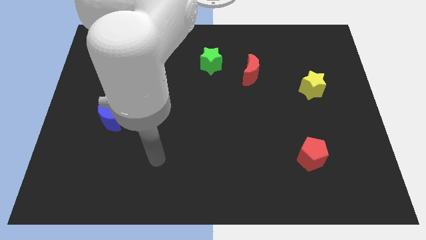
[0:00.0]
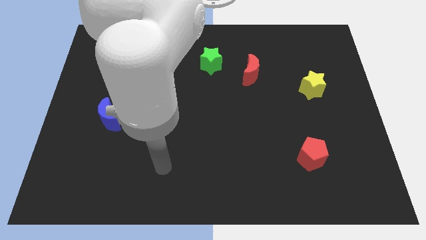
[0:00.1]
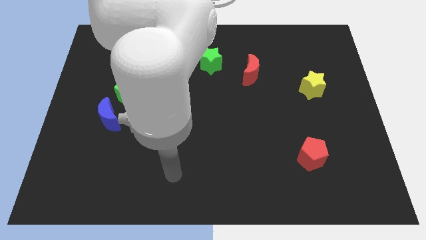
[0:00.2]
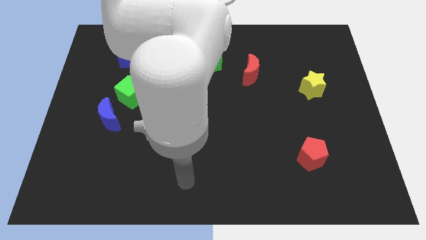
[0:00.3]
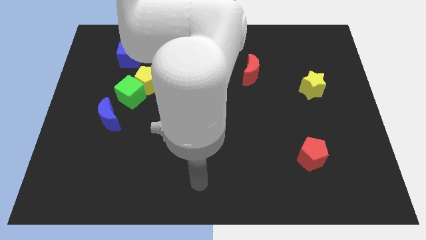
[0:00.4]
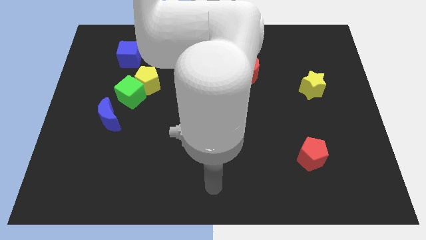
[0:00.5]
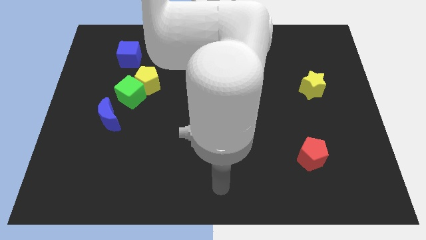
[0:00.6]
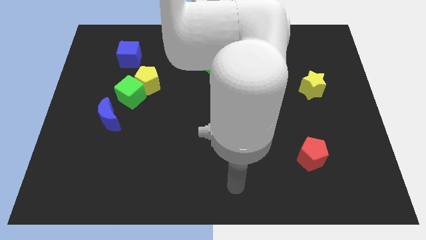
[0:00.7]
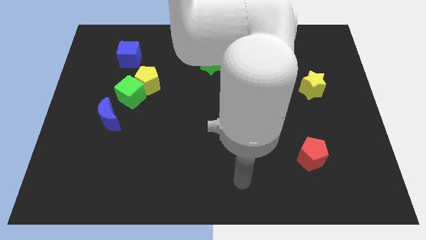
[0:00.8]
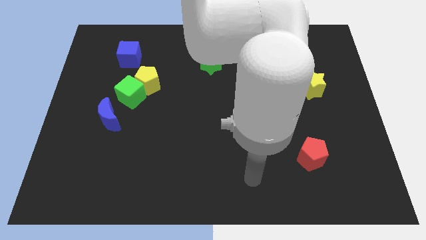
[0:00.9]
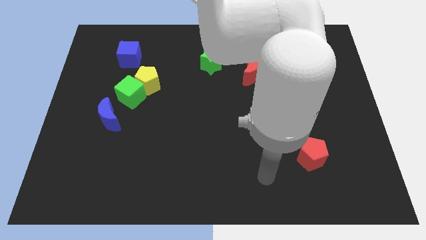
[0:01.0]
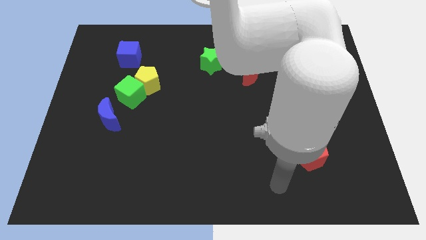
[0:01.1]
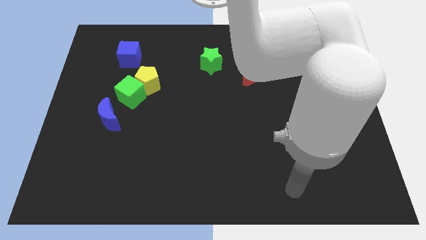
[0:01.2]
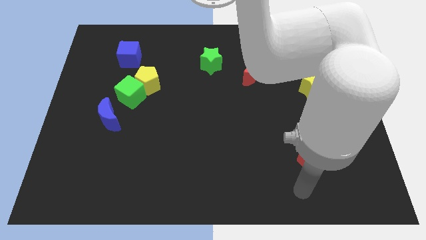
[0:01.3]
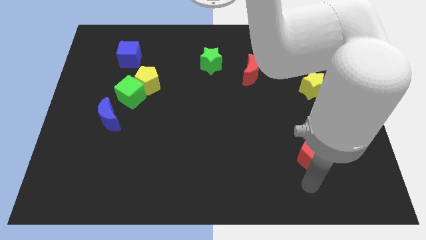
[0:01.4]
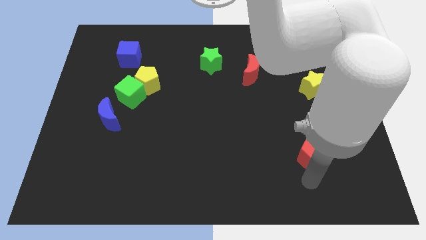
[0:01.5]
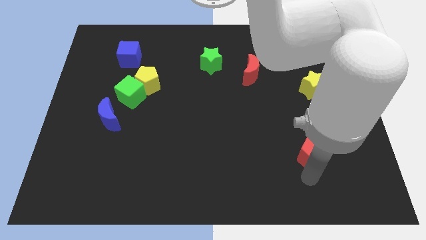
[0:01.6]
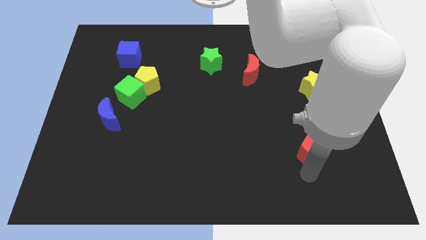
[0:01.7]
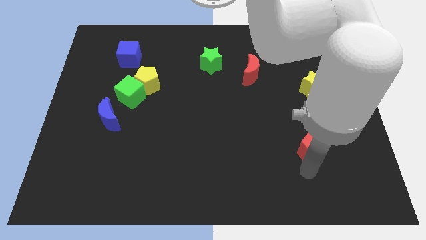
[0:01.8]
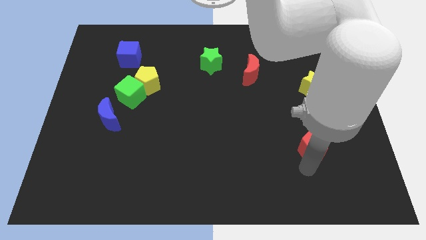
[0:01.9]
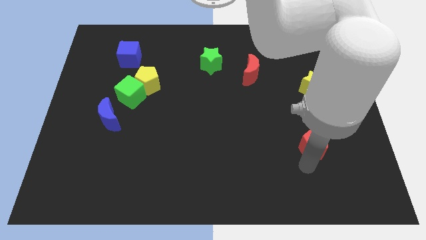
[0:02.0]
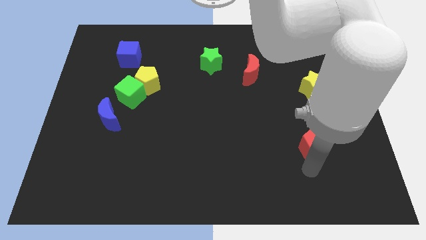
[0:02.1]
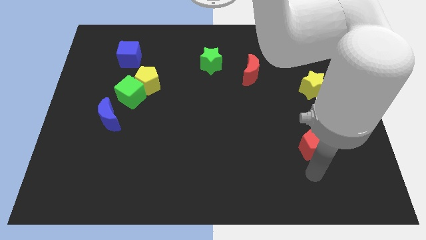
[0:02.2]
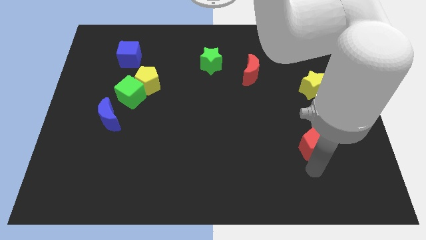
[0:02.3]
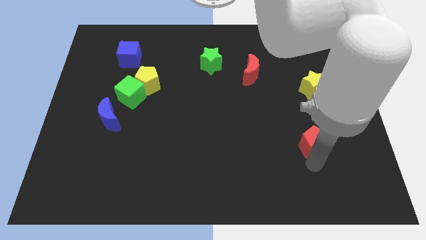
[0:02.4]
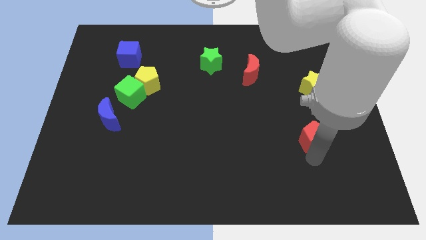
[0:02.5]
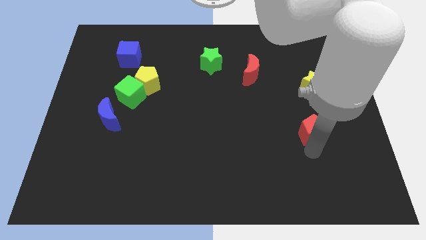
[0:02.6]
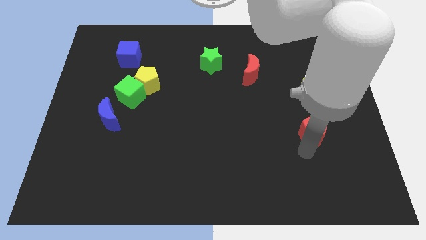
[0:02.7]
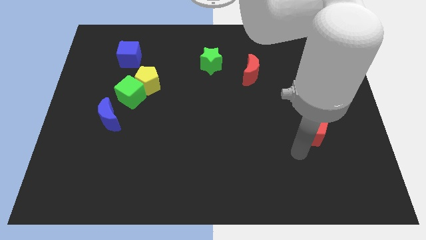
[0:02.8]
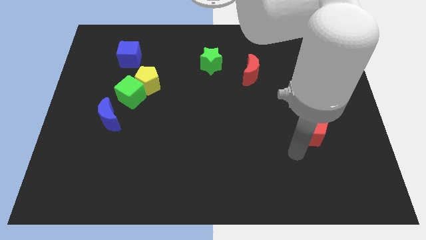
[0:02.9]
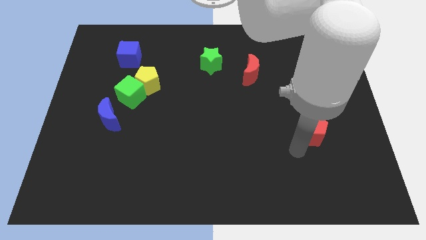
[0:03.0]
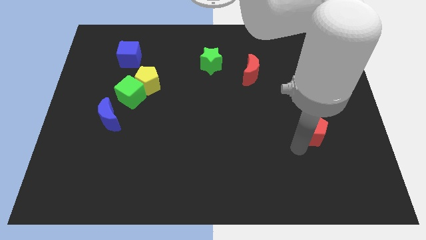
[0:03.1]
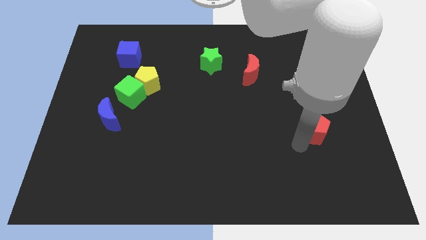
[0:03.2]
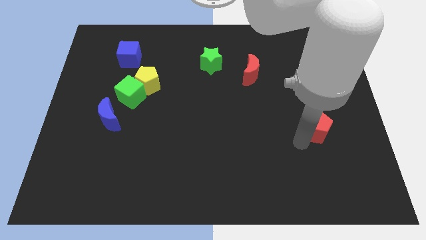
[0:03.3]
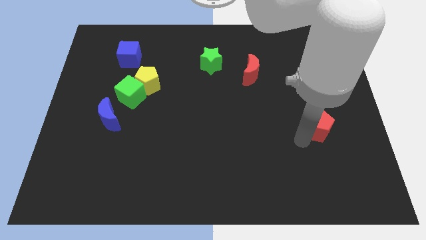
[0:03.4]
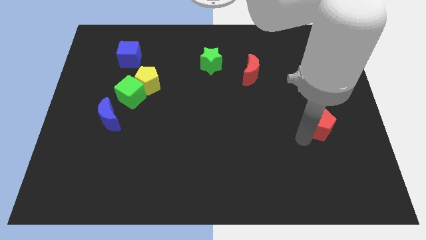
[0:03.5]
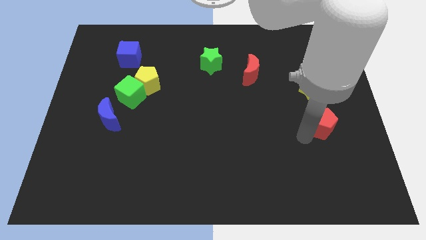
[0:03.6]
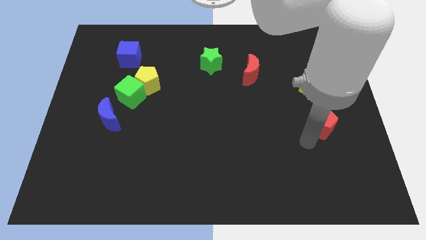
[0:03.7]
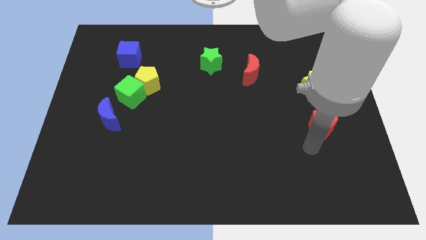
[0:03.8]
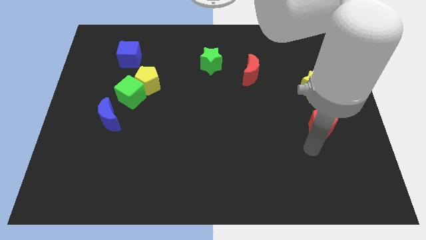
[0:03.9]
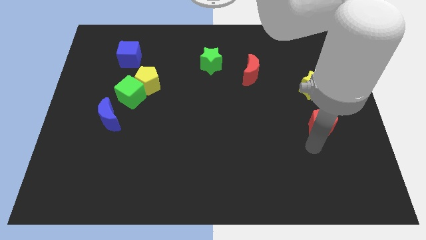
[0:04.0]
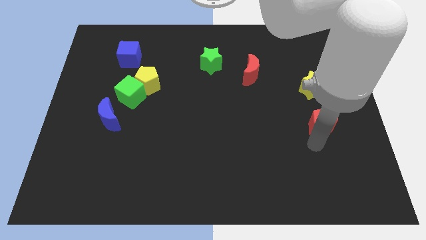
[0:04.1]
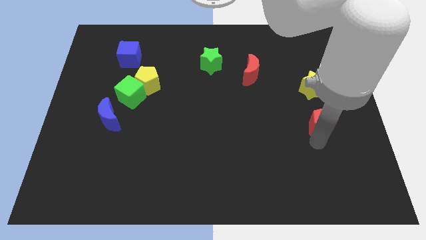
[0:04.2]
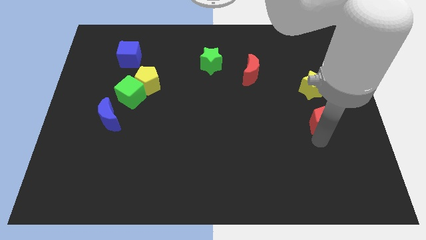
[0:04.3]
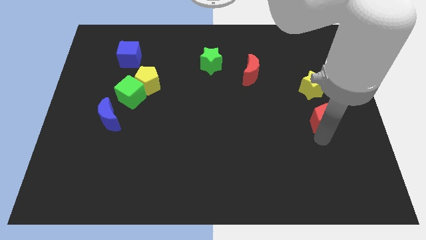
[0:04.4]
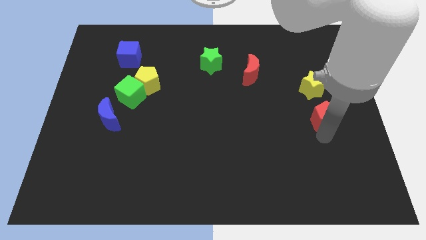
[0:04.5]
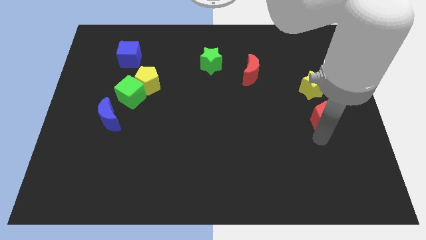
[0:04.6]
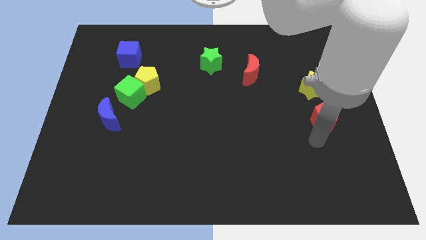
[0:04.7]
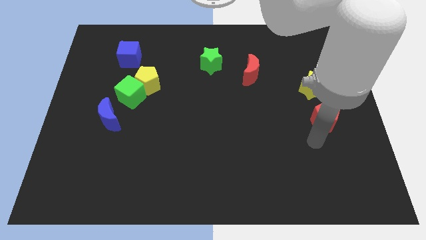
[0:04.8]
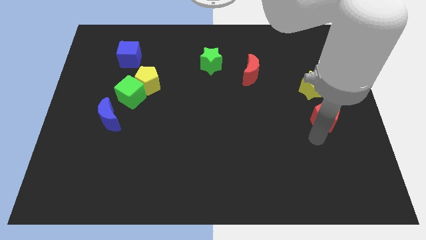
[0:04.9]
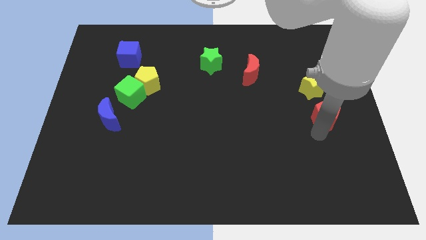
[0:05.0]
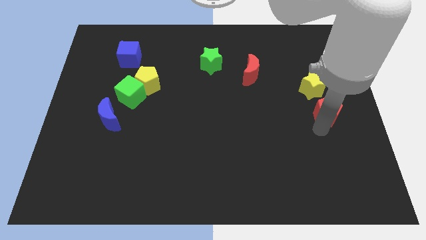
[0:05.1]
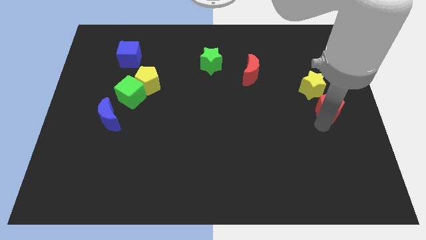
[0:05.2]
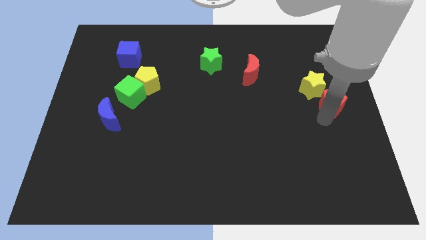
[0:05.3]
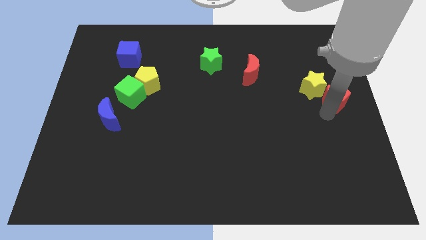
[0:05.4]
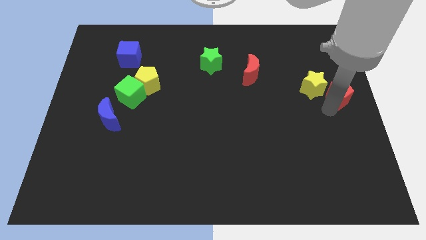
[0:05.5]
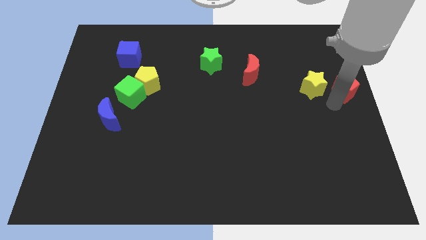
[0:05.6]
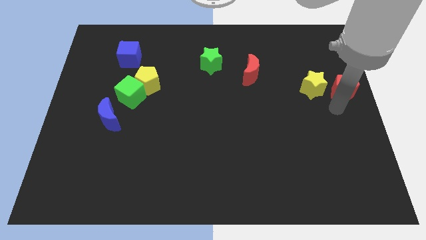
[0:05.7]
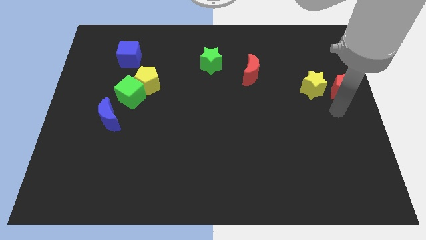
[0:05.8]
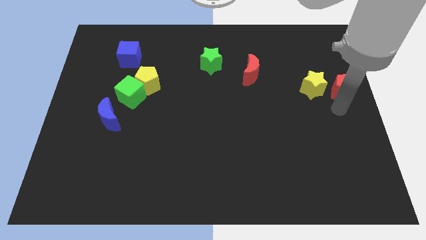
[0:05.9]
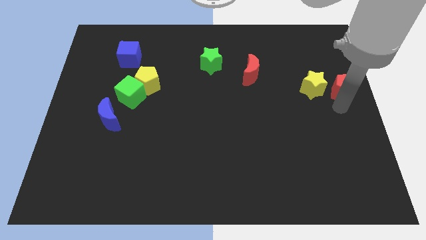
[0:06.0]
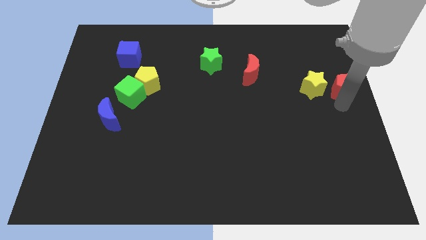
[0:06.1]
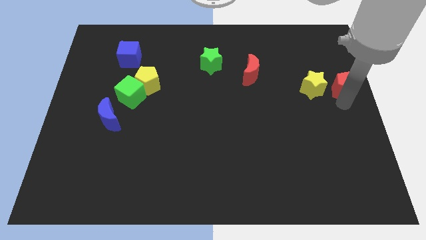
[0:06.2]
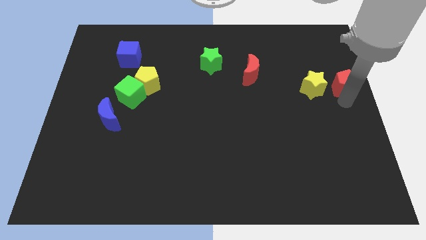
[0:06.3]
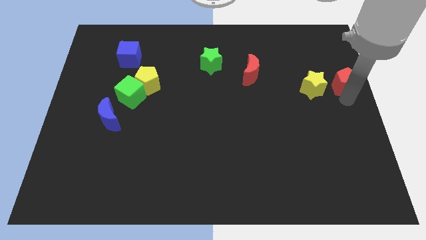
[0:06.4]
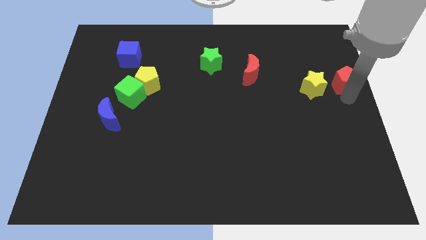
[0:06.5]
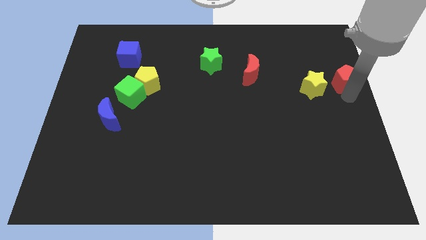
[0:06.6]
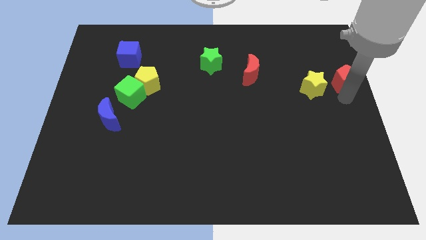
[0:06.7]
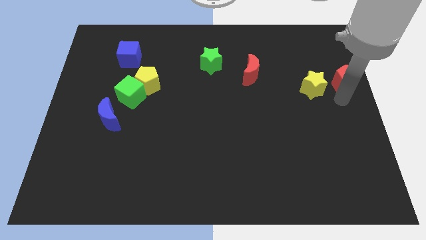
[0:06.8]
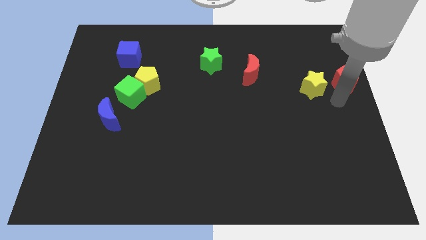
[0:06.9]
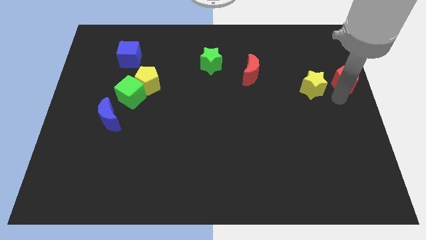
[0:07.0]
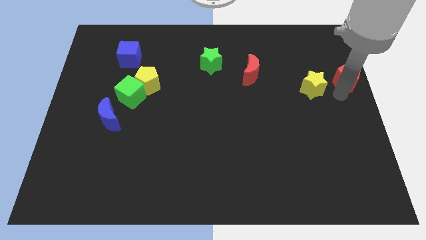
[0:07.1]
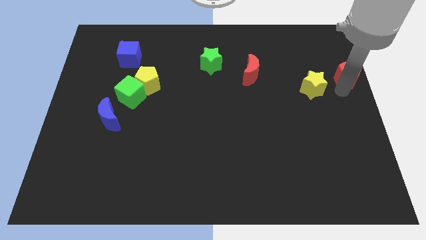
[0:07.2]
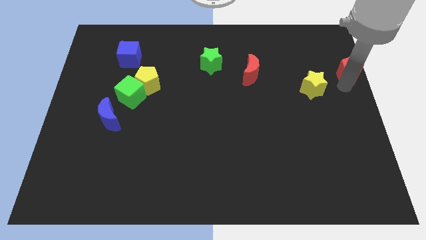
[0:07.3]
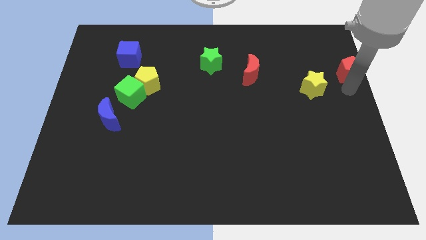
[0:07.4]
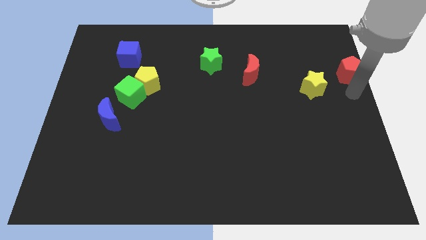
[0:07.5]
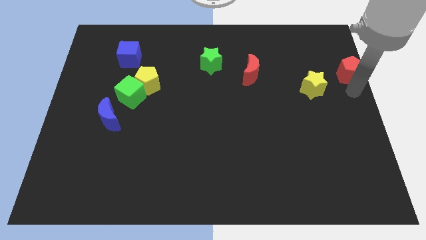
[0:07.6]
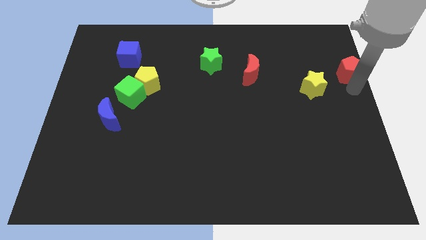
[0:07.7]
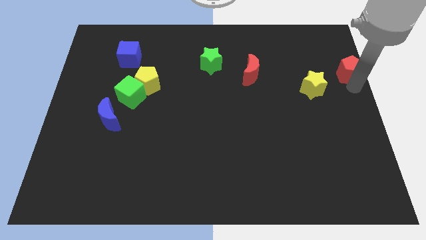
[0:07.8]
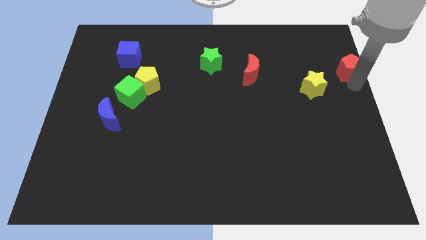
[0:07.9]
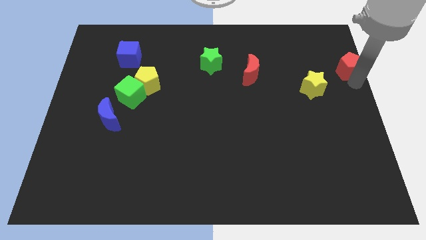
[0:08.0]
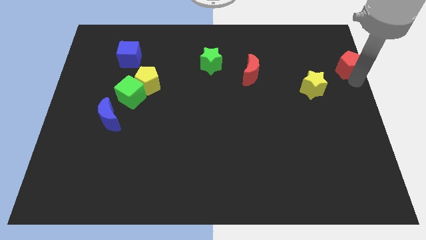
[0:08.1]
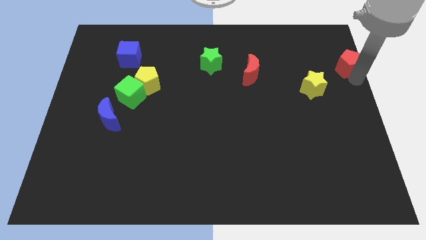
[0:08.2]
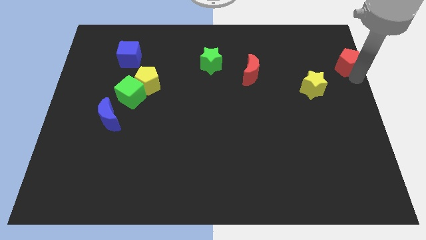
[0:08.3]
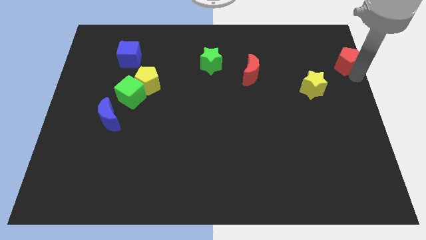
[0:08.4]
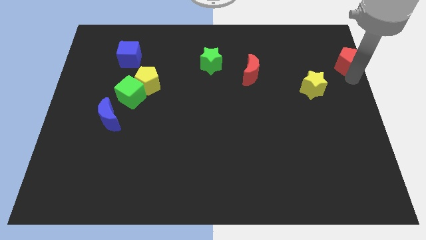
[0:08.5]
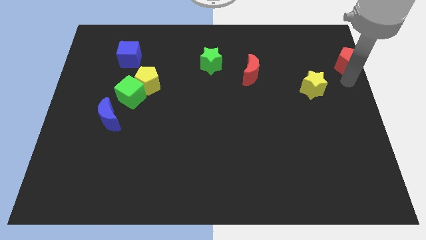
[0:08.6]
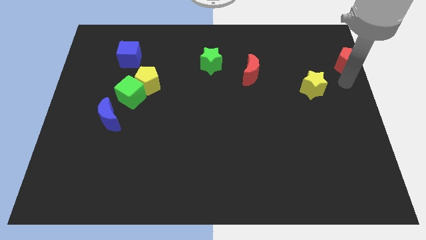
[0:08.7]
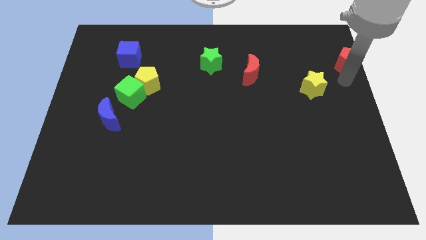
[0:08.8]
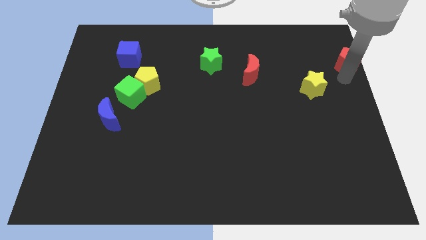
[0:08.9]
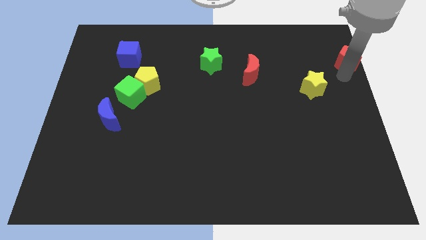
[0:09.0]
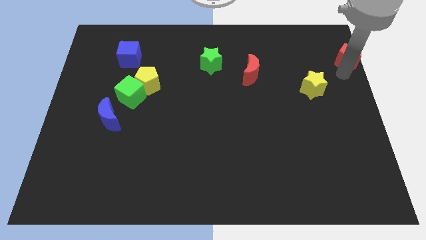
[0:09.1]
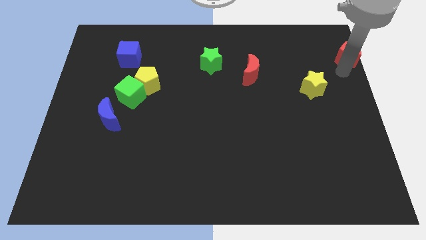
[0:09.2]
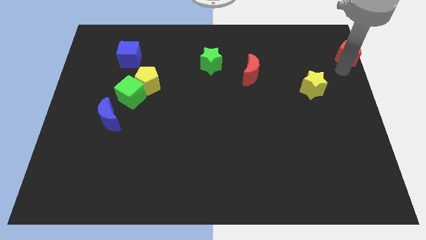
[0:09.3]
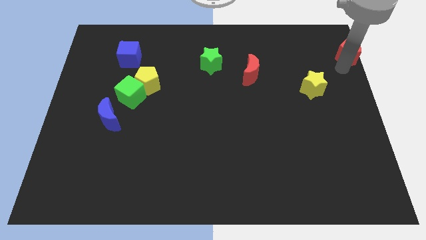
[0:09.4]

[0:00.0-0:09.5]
slide the red pentagon to the top right corner
